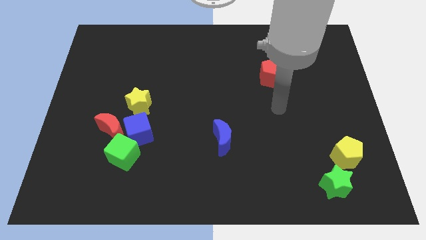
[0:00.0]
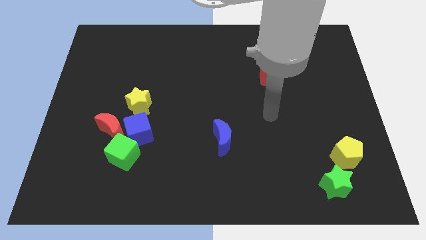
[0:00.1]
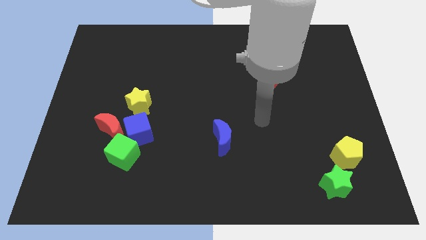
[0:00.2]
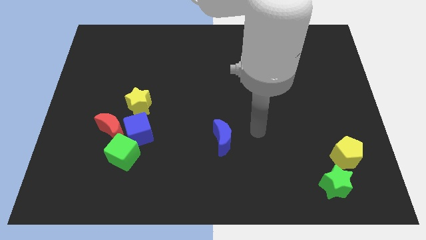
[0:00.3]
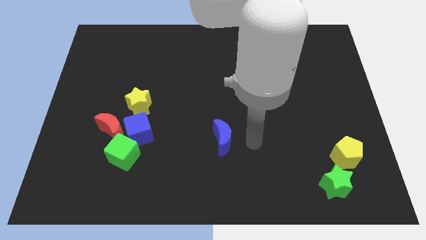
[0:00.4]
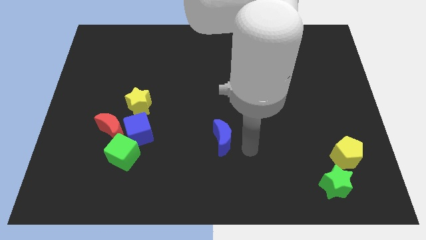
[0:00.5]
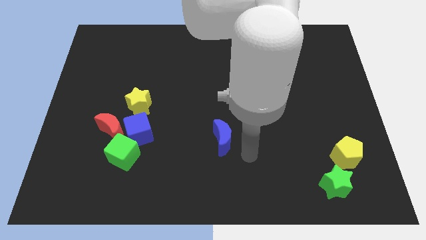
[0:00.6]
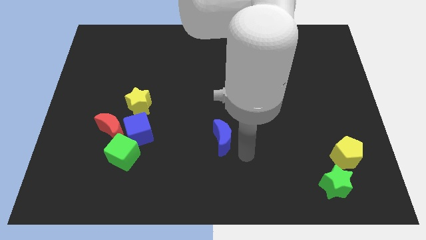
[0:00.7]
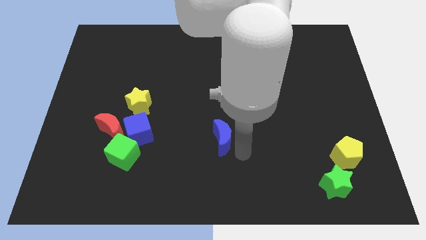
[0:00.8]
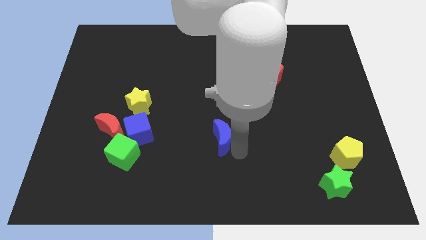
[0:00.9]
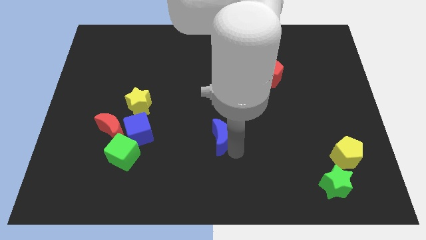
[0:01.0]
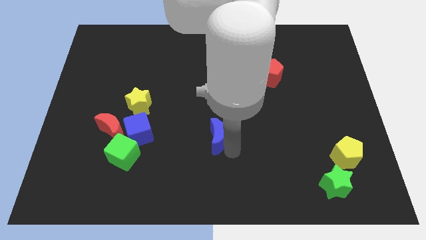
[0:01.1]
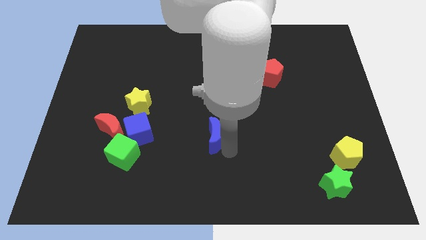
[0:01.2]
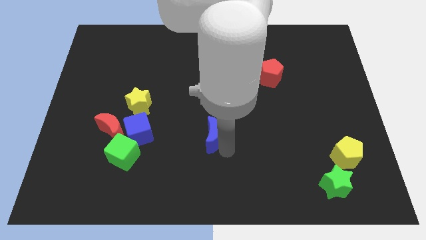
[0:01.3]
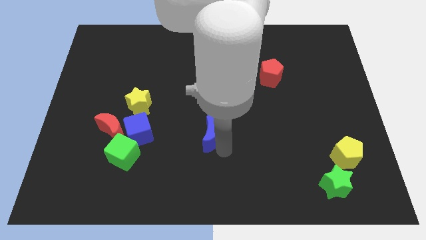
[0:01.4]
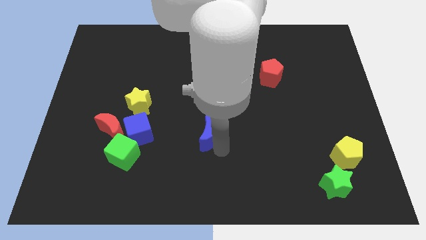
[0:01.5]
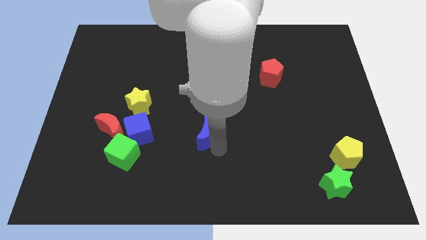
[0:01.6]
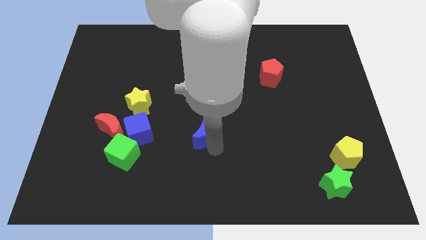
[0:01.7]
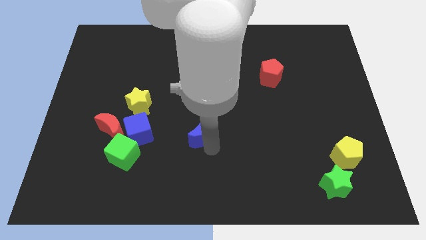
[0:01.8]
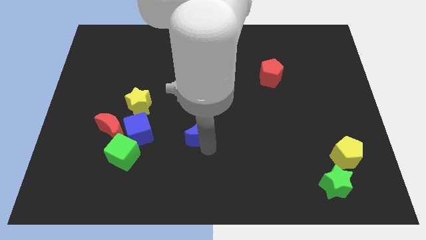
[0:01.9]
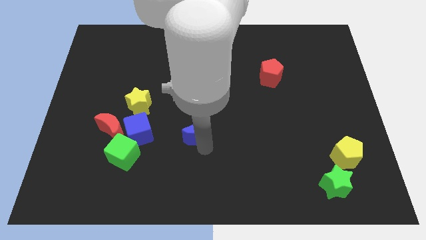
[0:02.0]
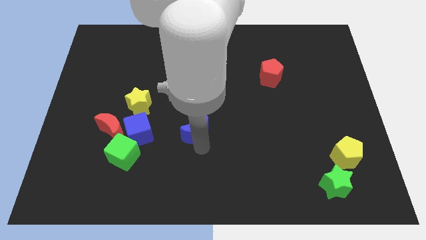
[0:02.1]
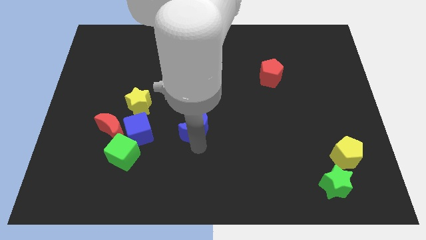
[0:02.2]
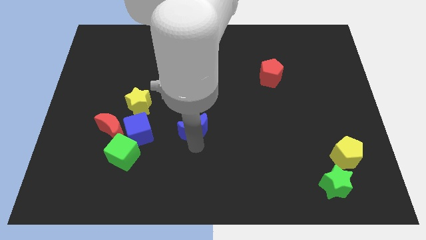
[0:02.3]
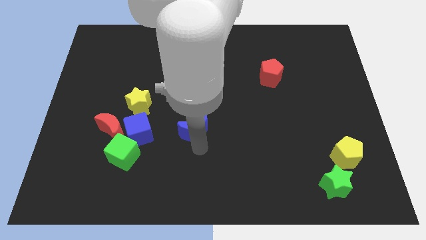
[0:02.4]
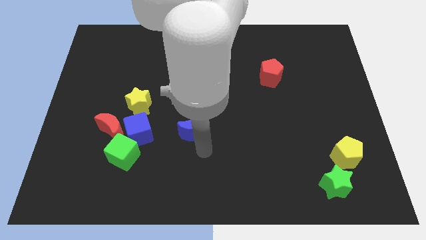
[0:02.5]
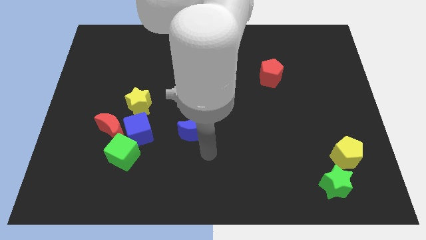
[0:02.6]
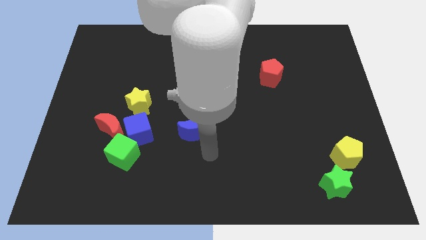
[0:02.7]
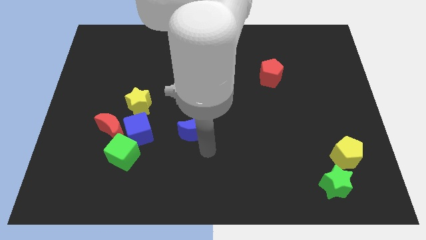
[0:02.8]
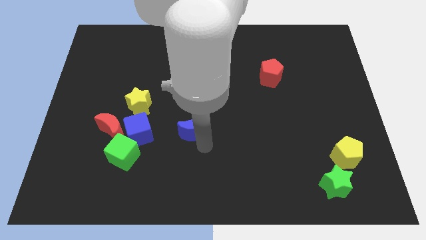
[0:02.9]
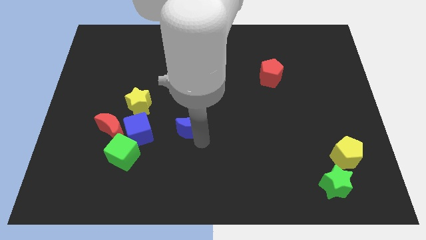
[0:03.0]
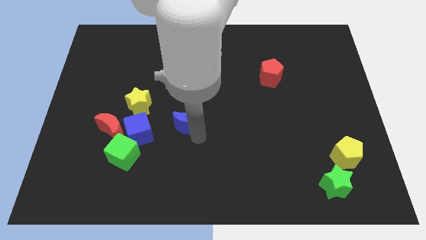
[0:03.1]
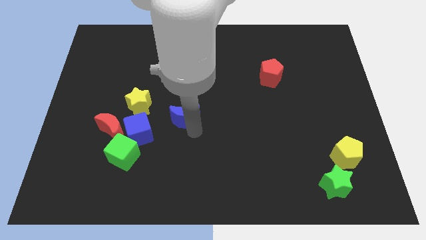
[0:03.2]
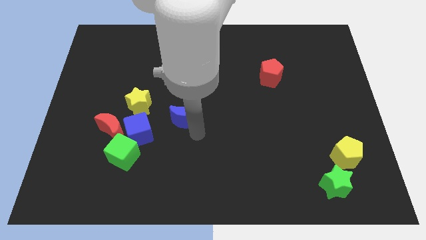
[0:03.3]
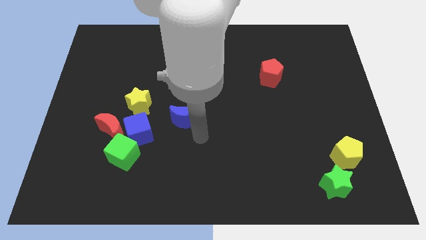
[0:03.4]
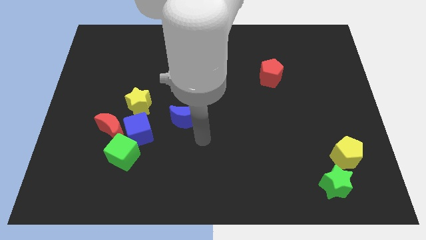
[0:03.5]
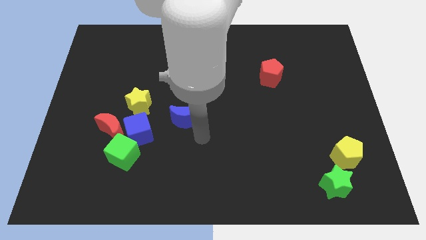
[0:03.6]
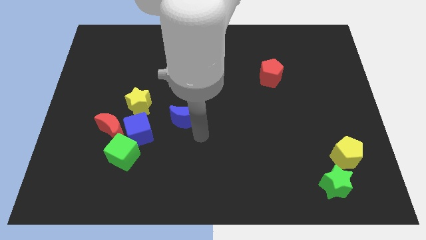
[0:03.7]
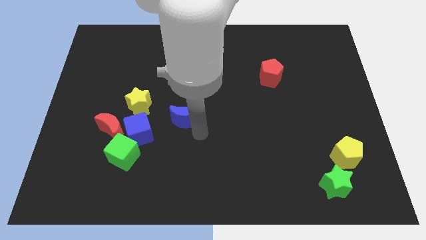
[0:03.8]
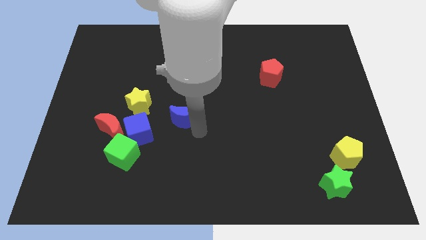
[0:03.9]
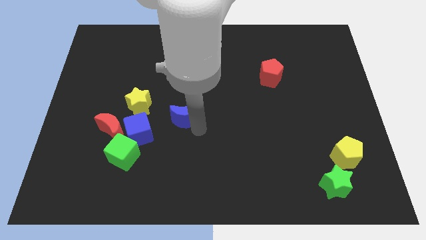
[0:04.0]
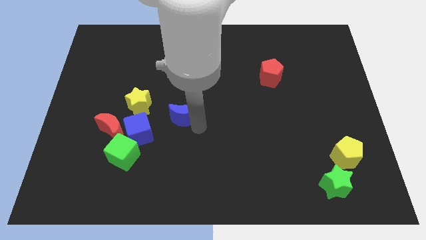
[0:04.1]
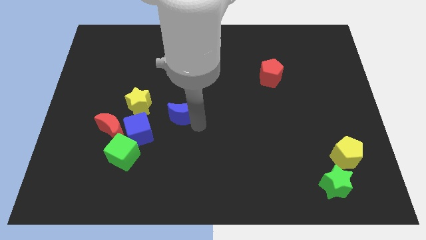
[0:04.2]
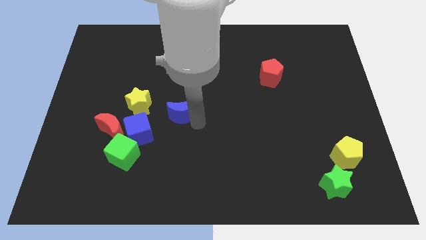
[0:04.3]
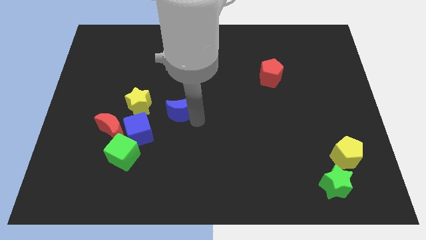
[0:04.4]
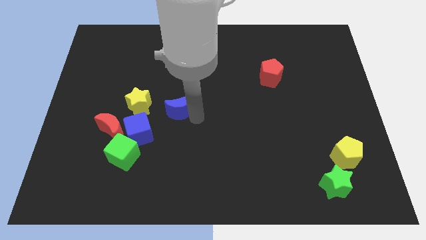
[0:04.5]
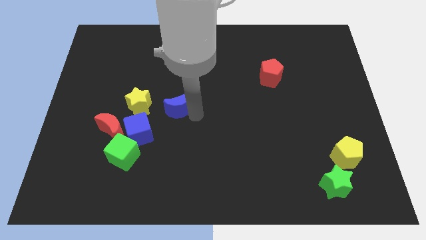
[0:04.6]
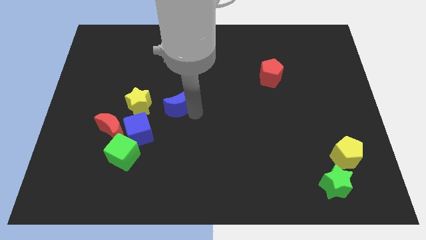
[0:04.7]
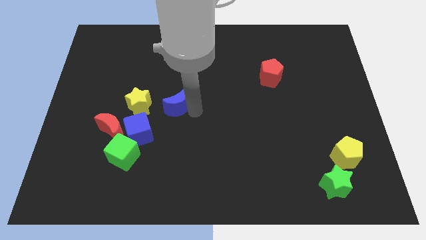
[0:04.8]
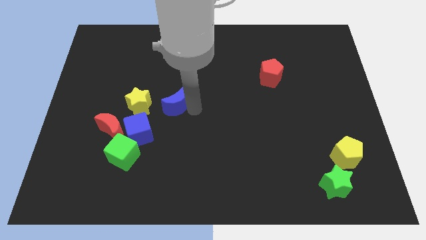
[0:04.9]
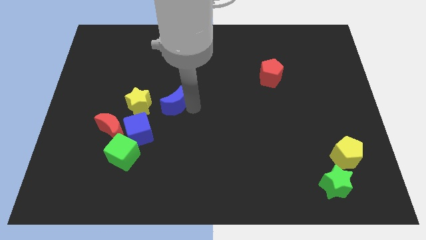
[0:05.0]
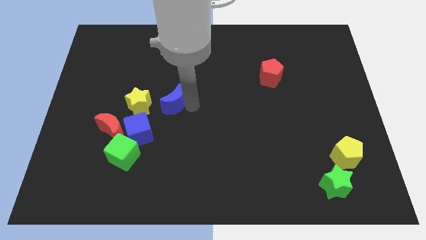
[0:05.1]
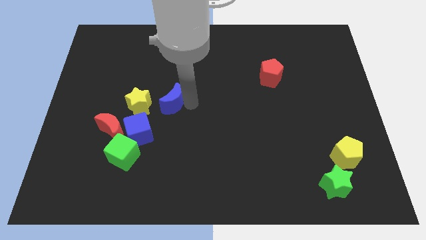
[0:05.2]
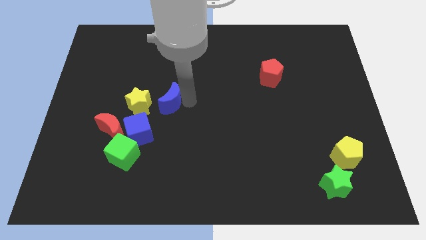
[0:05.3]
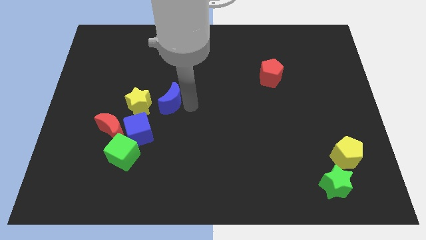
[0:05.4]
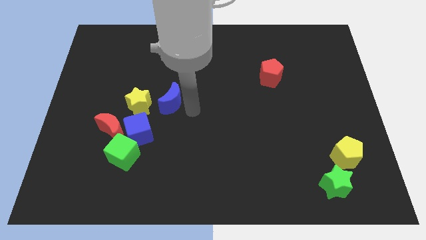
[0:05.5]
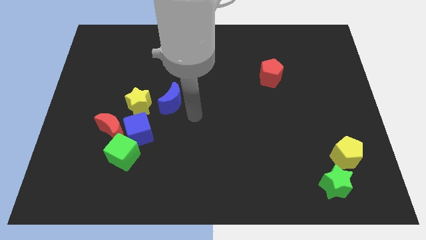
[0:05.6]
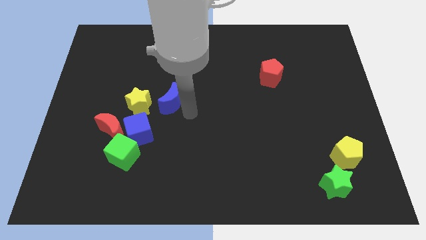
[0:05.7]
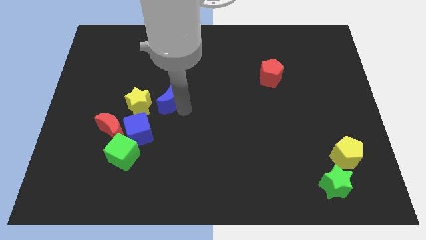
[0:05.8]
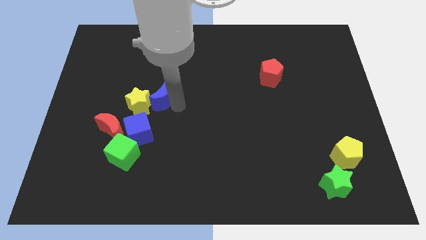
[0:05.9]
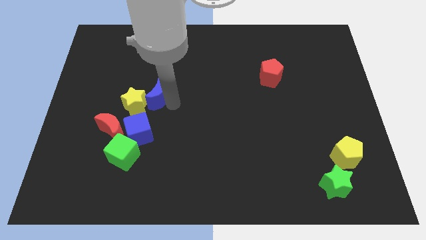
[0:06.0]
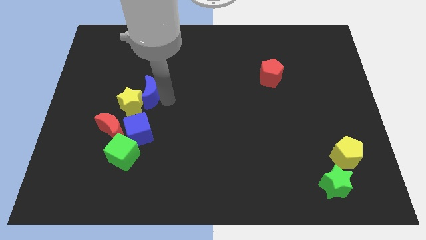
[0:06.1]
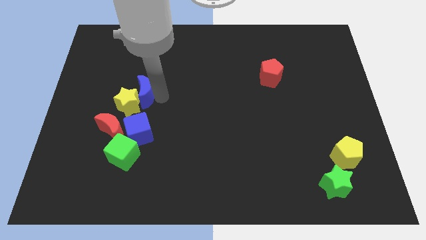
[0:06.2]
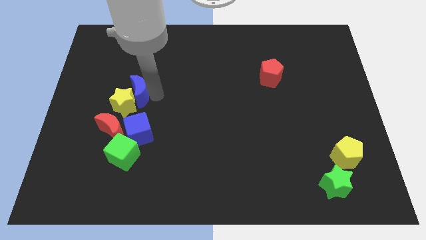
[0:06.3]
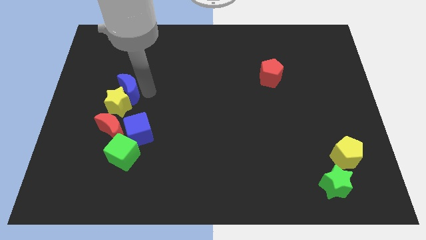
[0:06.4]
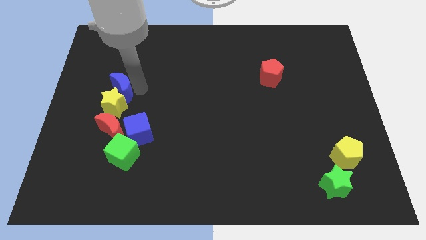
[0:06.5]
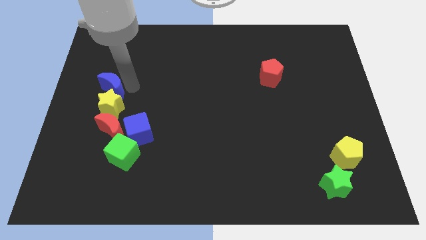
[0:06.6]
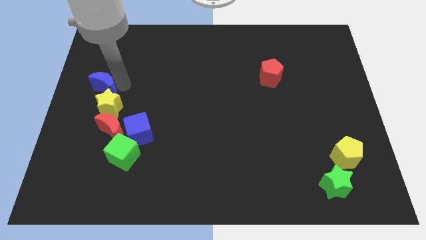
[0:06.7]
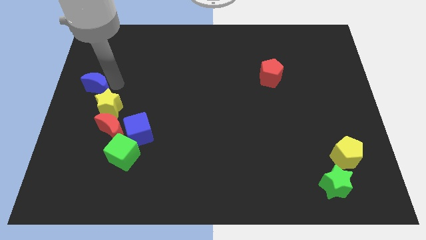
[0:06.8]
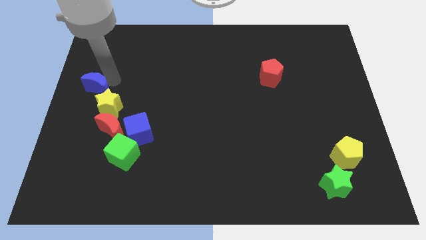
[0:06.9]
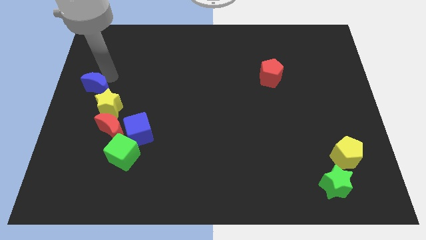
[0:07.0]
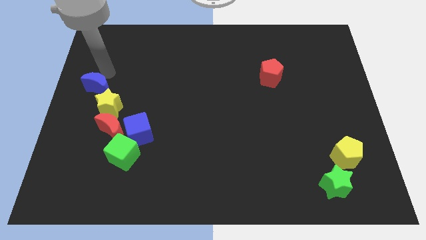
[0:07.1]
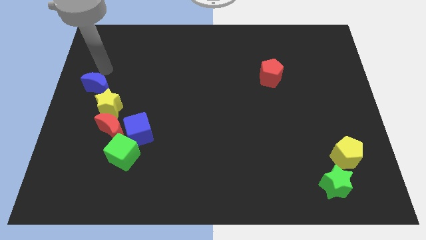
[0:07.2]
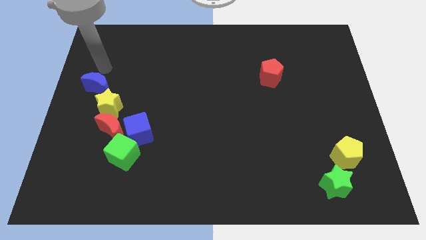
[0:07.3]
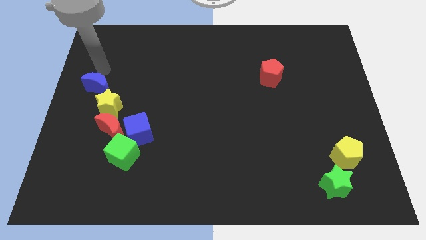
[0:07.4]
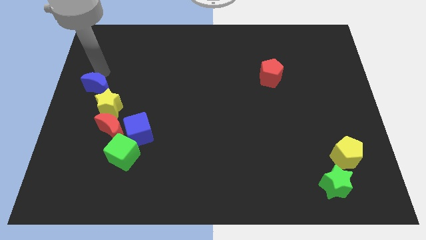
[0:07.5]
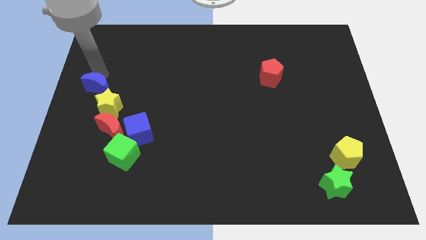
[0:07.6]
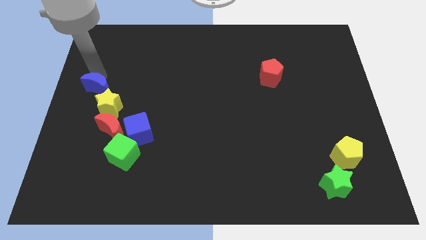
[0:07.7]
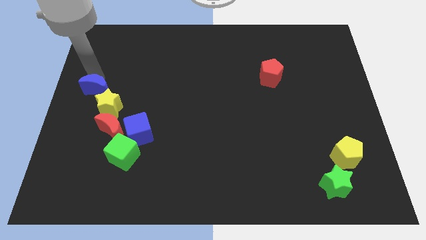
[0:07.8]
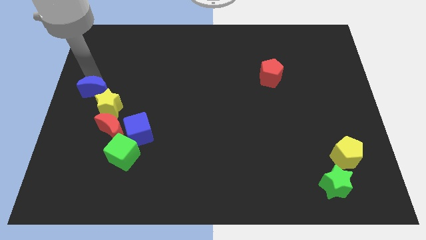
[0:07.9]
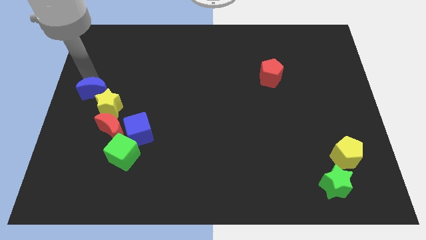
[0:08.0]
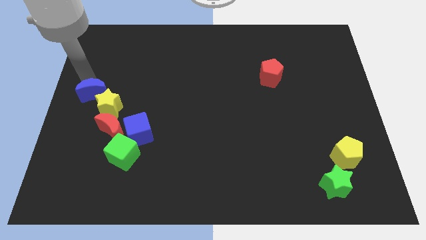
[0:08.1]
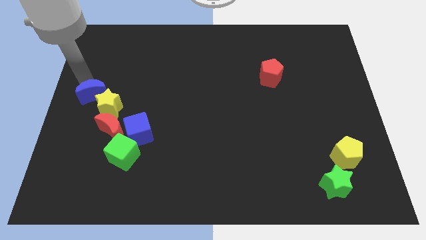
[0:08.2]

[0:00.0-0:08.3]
slide the blue moon to the top left of the red moon
